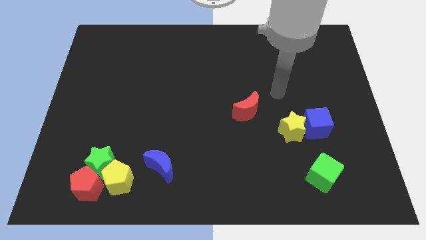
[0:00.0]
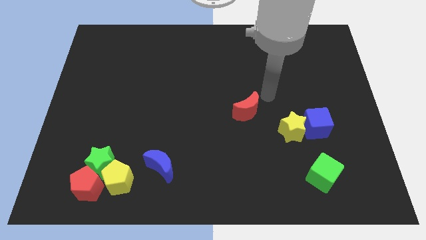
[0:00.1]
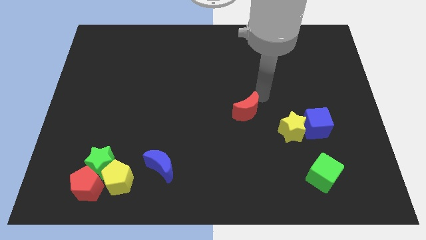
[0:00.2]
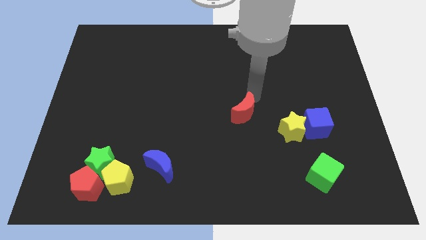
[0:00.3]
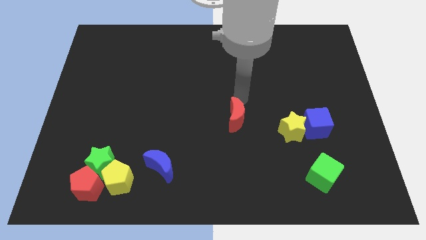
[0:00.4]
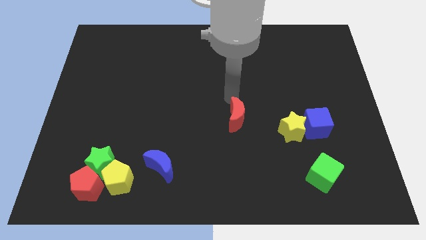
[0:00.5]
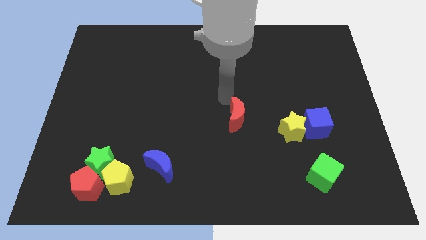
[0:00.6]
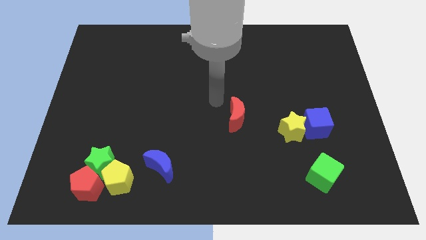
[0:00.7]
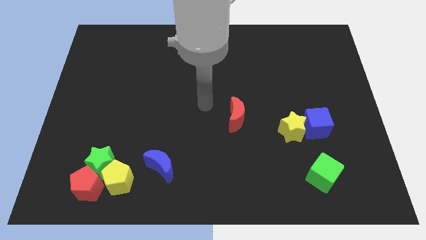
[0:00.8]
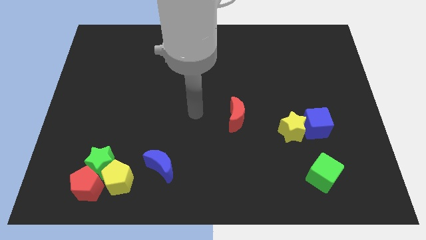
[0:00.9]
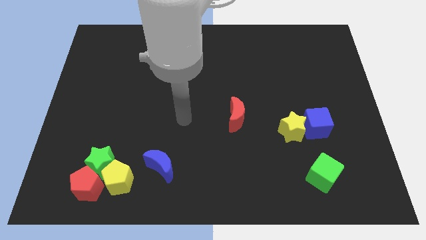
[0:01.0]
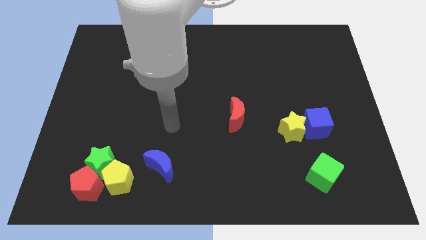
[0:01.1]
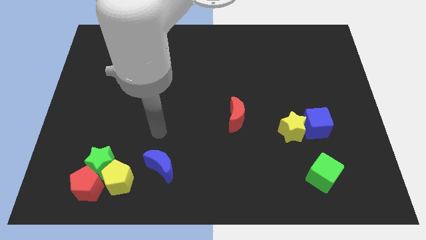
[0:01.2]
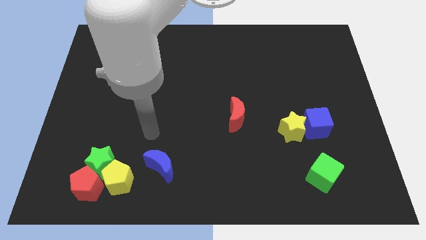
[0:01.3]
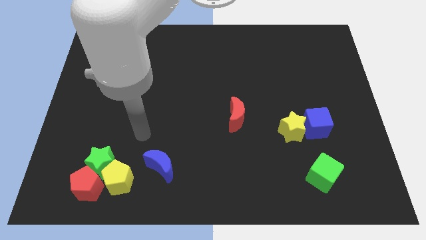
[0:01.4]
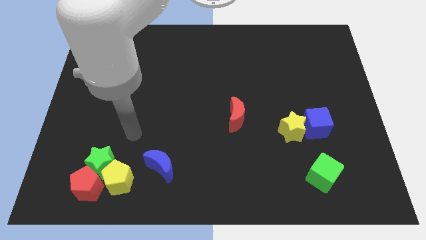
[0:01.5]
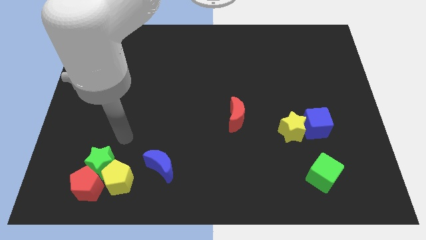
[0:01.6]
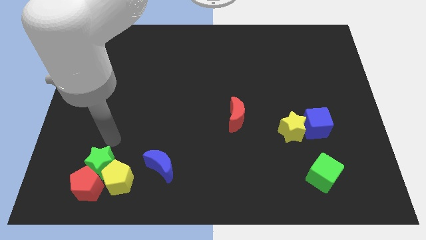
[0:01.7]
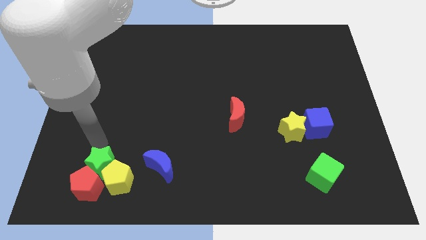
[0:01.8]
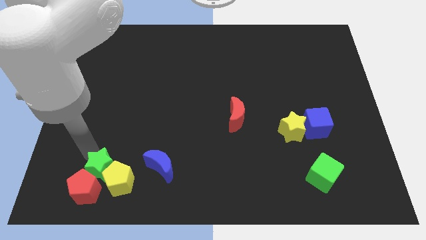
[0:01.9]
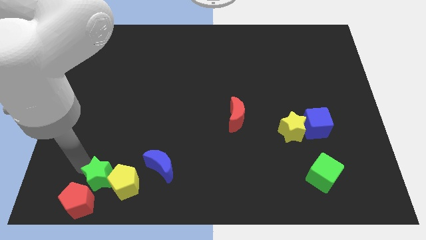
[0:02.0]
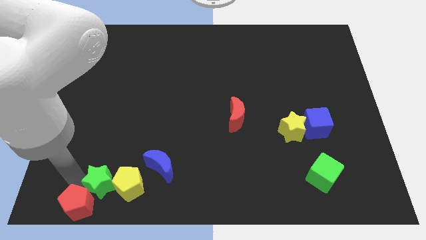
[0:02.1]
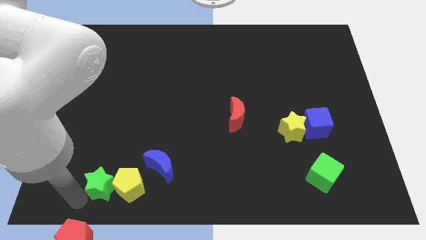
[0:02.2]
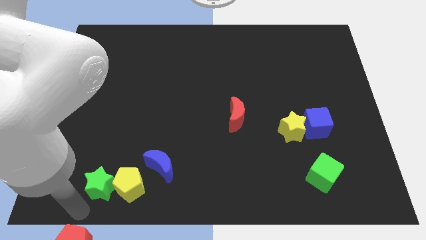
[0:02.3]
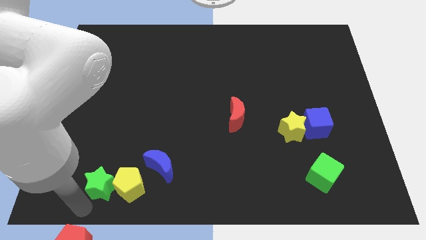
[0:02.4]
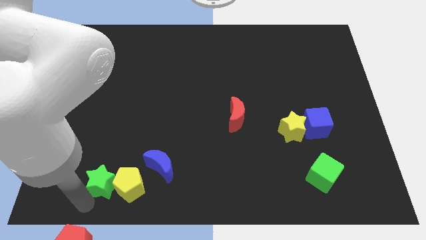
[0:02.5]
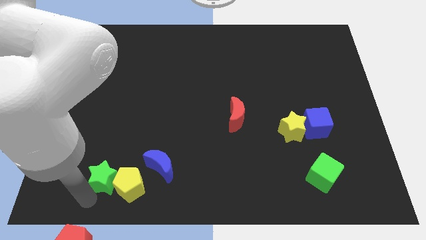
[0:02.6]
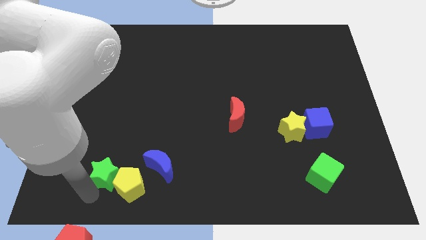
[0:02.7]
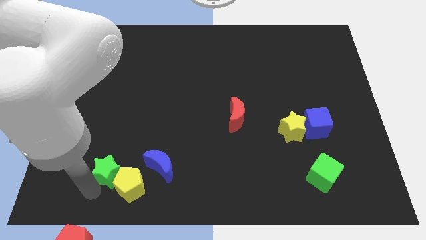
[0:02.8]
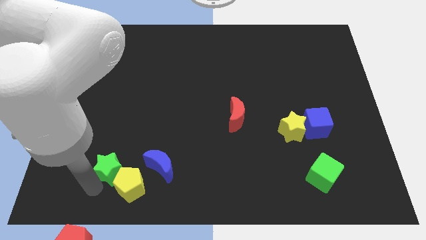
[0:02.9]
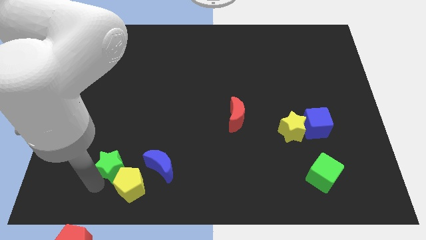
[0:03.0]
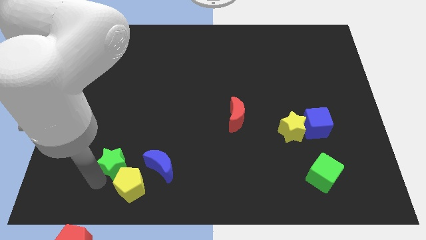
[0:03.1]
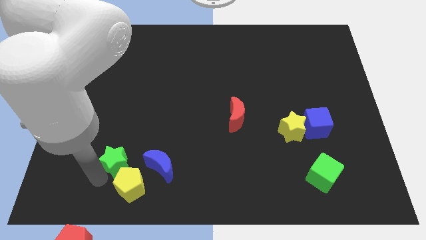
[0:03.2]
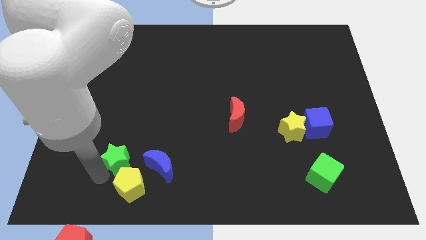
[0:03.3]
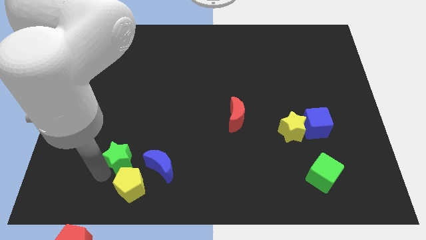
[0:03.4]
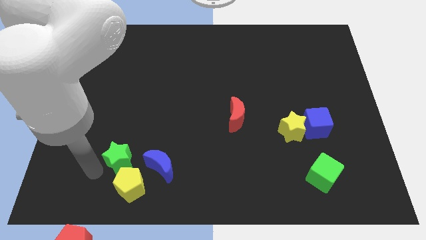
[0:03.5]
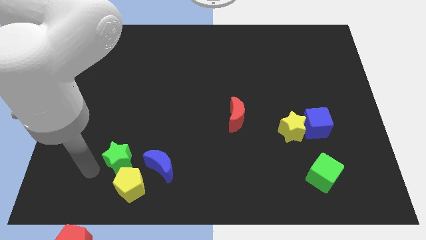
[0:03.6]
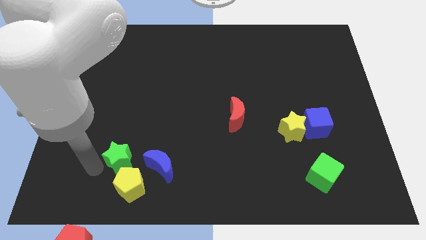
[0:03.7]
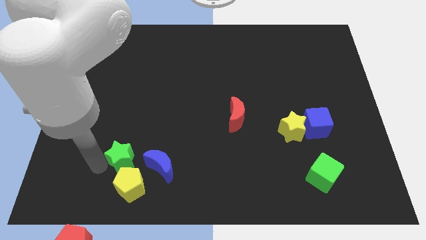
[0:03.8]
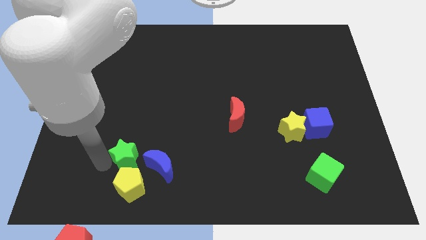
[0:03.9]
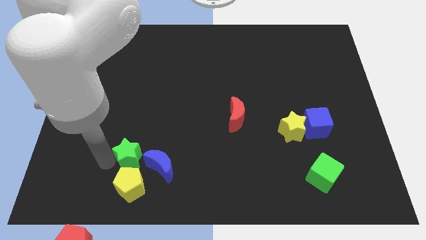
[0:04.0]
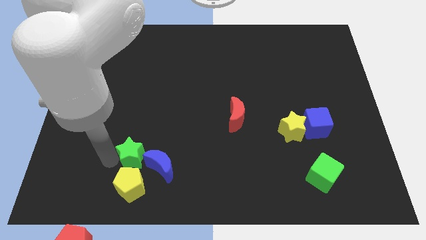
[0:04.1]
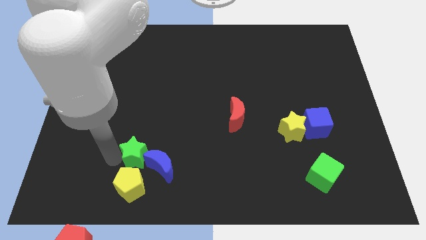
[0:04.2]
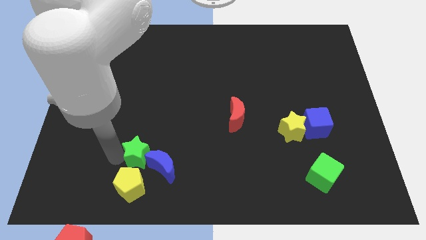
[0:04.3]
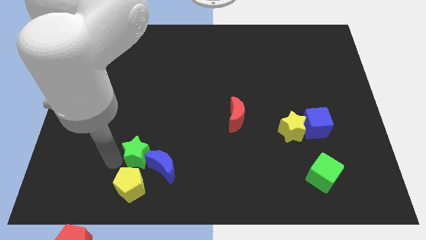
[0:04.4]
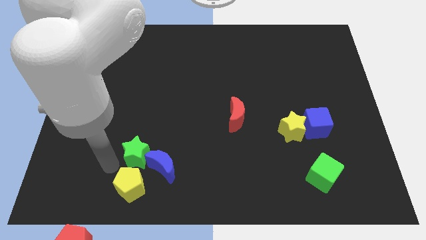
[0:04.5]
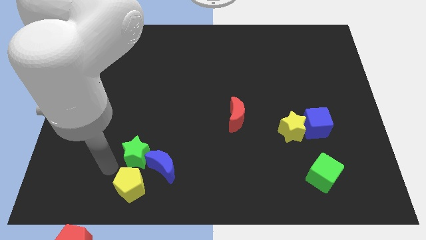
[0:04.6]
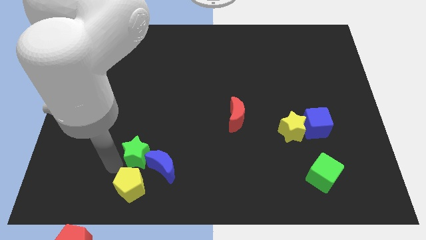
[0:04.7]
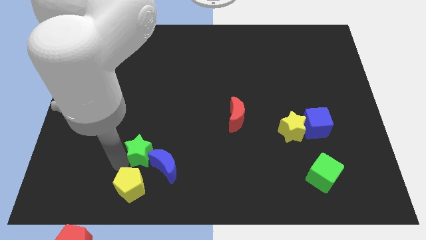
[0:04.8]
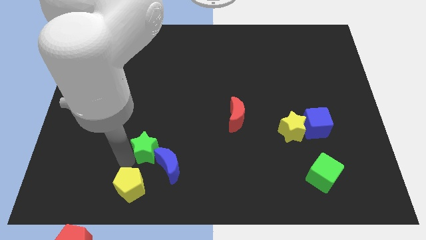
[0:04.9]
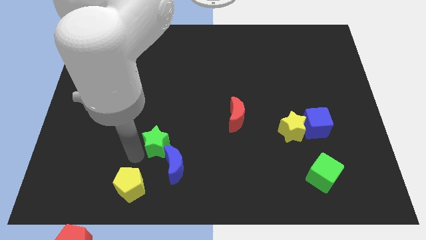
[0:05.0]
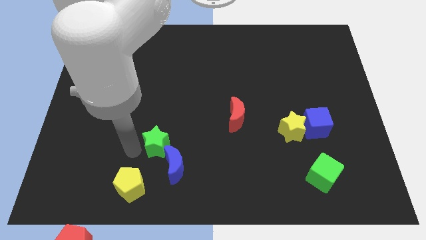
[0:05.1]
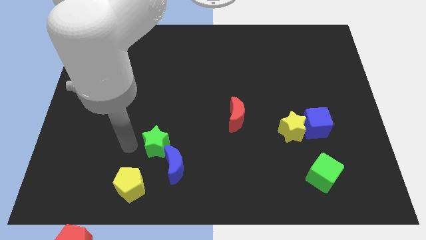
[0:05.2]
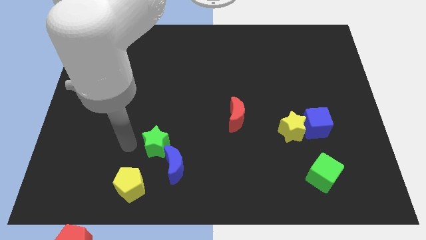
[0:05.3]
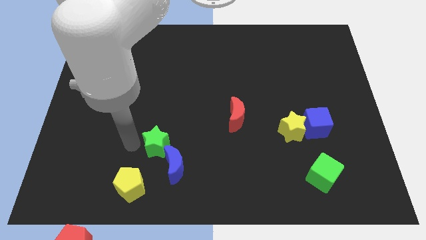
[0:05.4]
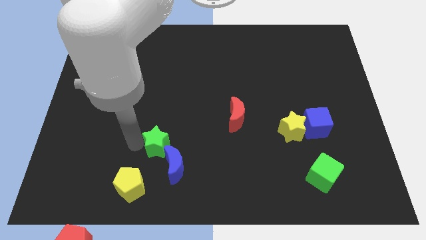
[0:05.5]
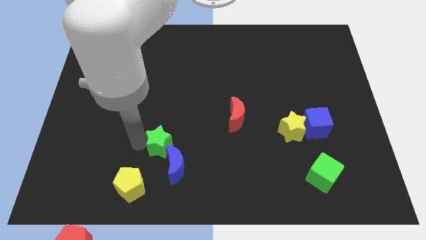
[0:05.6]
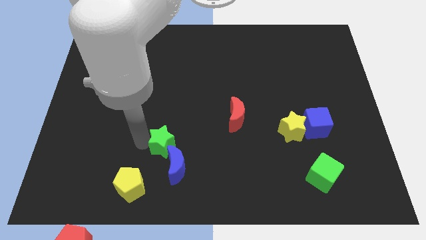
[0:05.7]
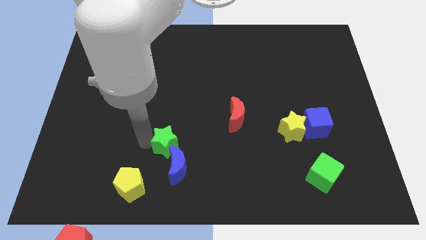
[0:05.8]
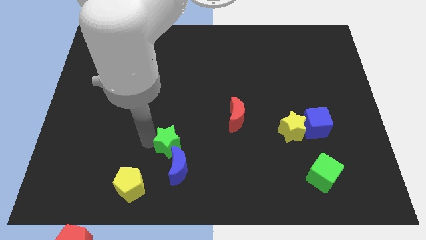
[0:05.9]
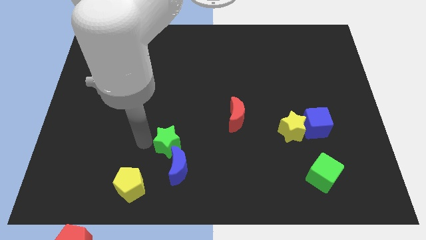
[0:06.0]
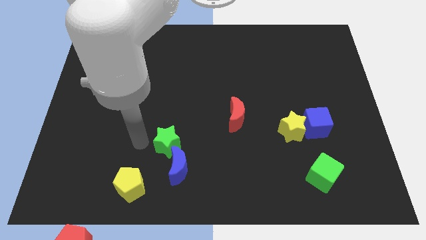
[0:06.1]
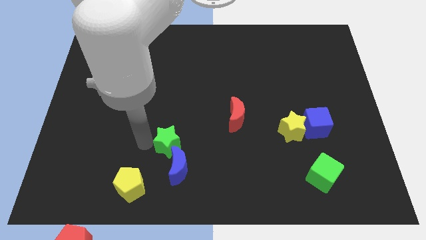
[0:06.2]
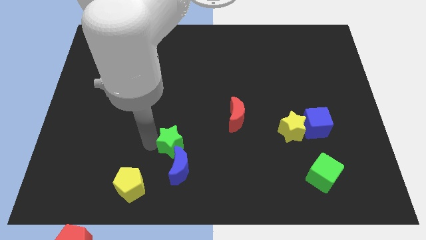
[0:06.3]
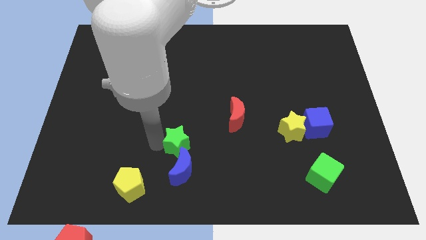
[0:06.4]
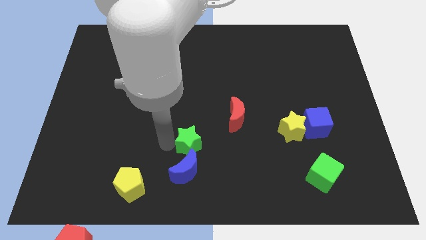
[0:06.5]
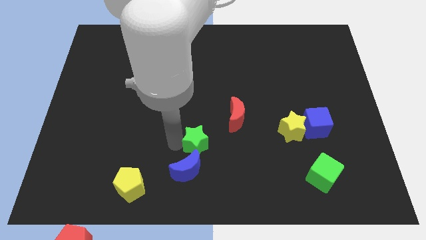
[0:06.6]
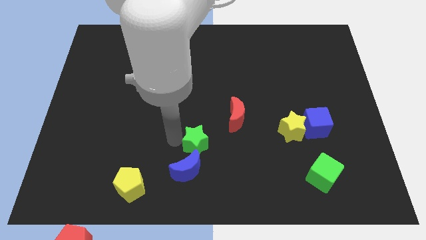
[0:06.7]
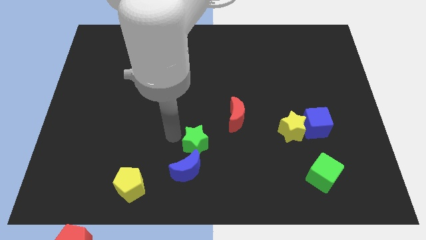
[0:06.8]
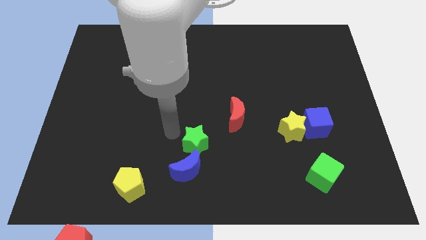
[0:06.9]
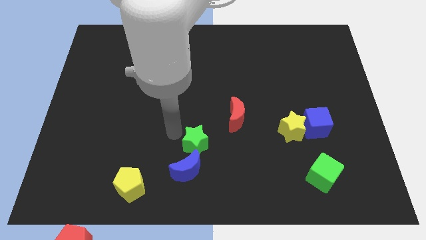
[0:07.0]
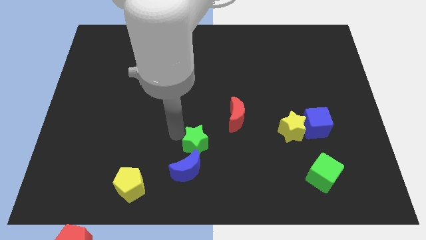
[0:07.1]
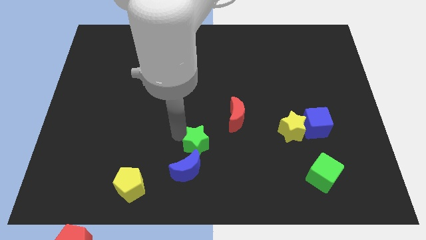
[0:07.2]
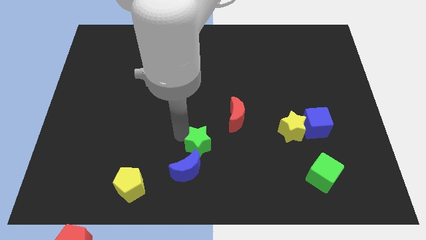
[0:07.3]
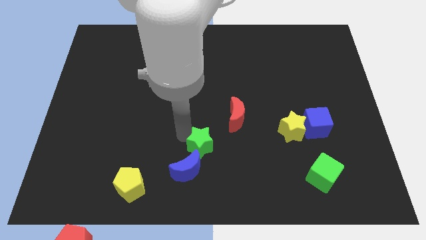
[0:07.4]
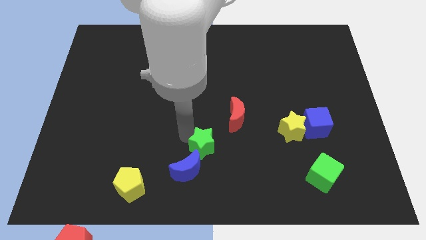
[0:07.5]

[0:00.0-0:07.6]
move the green star to the right

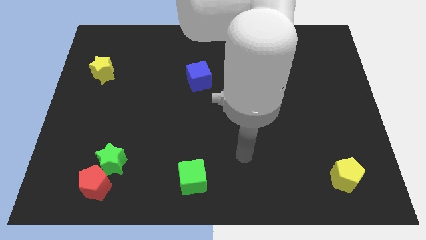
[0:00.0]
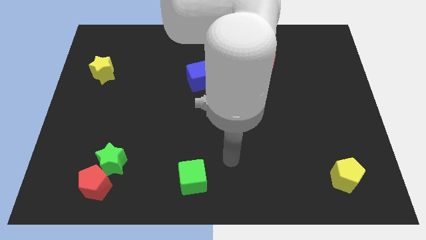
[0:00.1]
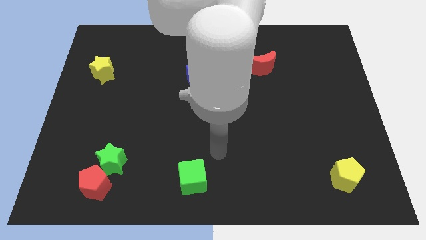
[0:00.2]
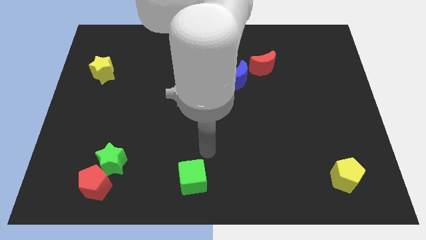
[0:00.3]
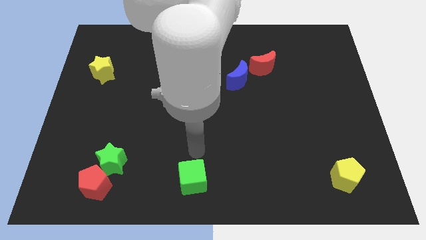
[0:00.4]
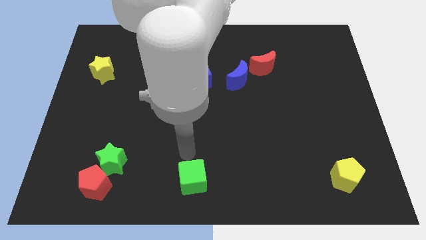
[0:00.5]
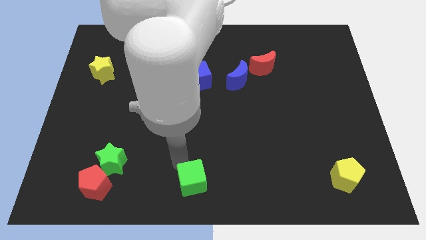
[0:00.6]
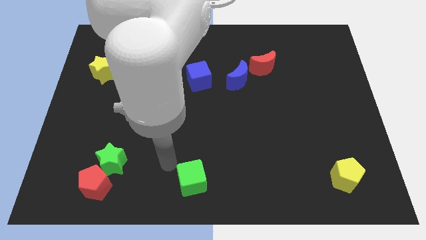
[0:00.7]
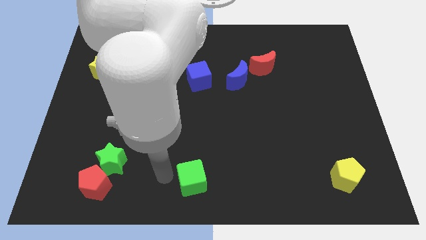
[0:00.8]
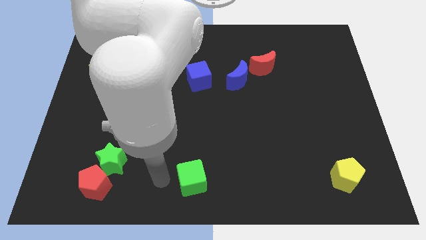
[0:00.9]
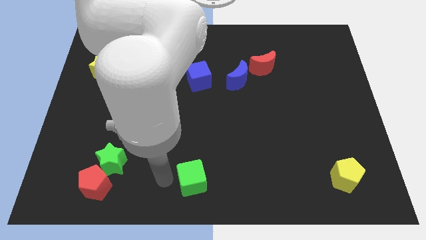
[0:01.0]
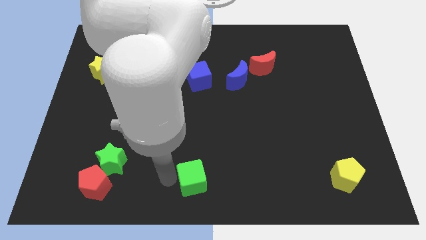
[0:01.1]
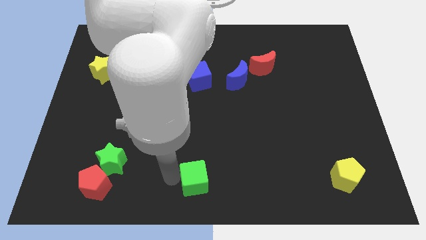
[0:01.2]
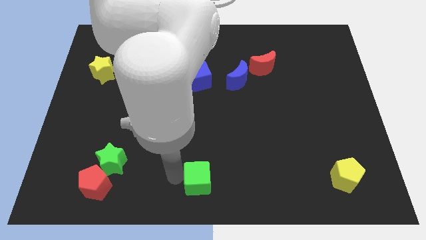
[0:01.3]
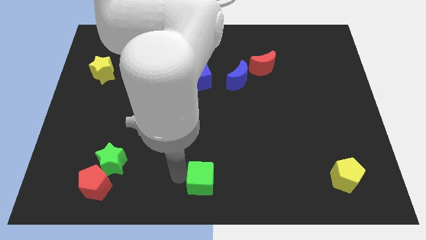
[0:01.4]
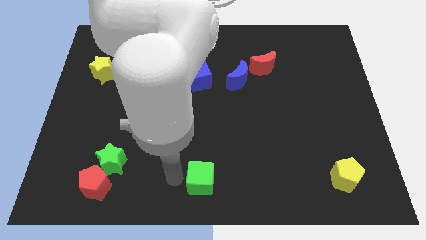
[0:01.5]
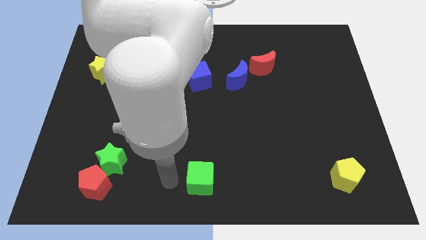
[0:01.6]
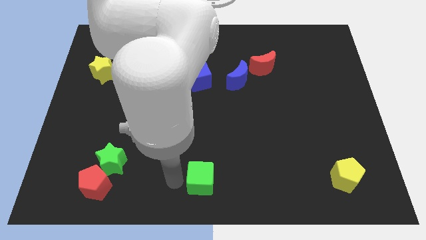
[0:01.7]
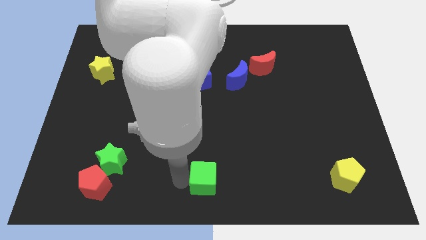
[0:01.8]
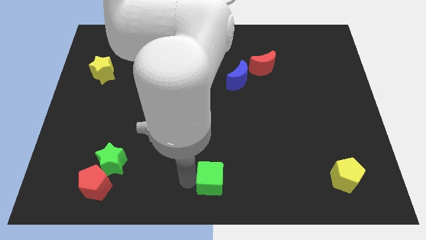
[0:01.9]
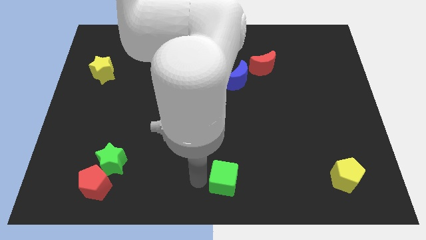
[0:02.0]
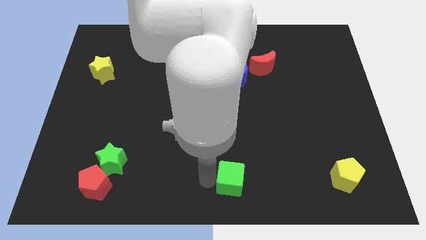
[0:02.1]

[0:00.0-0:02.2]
push the green cube to the right somewhat
